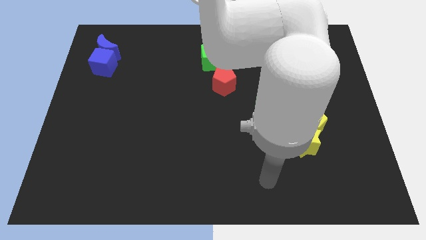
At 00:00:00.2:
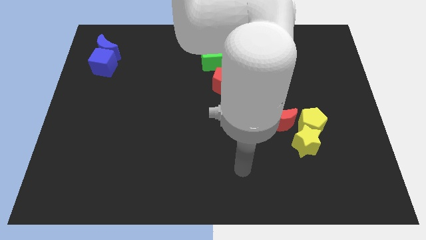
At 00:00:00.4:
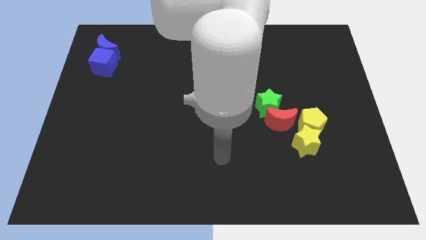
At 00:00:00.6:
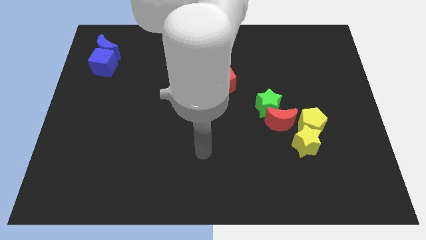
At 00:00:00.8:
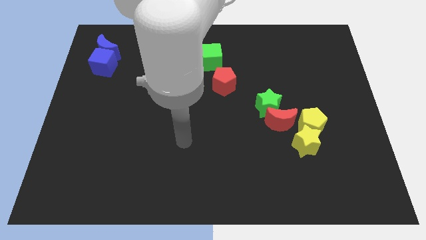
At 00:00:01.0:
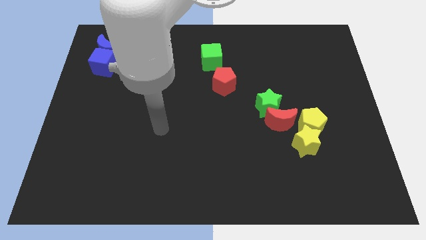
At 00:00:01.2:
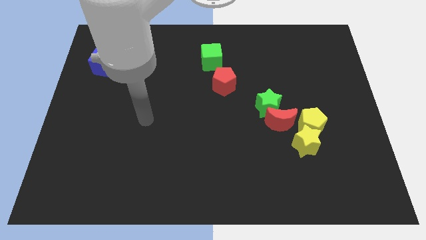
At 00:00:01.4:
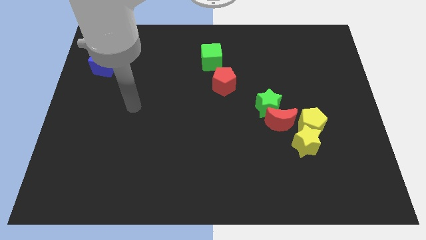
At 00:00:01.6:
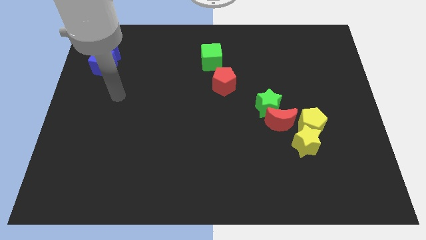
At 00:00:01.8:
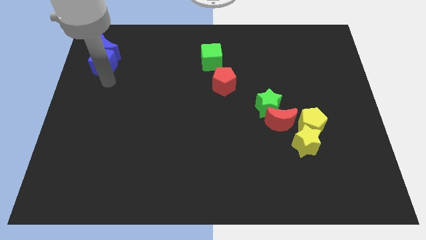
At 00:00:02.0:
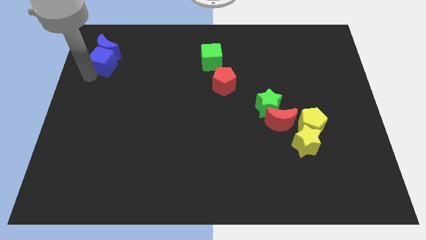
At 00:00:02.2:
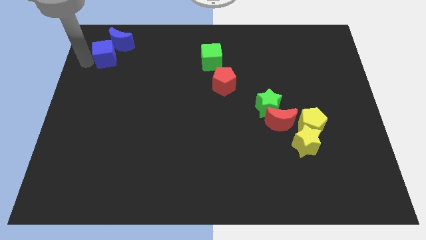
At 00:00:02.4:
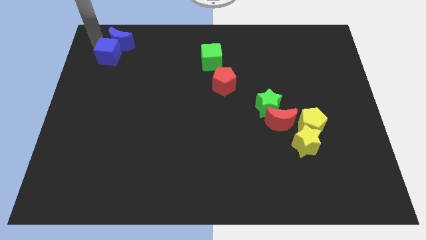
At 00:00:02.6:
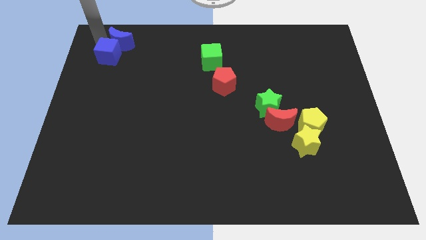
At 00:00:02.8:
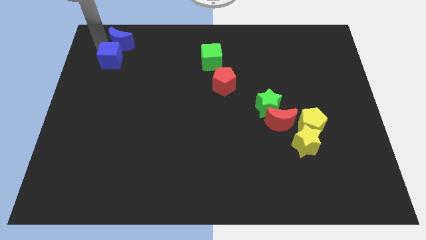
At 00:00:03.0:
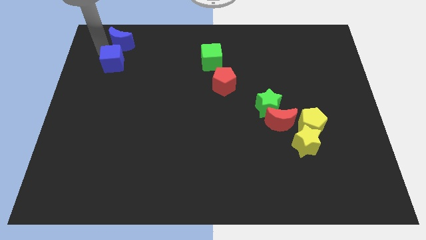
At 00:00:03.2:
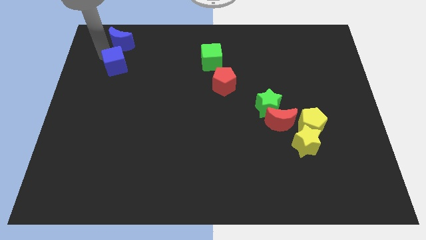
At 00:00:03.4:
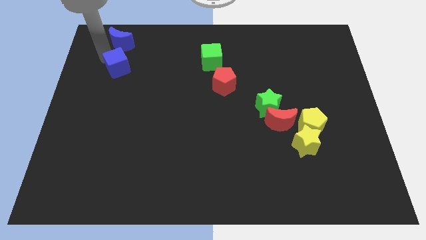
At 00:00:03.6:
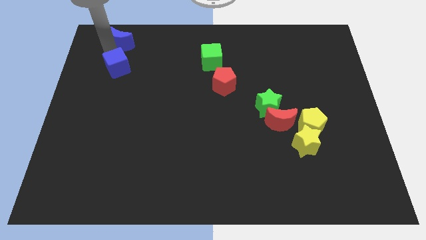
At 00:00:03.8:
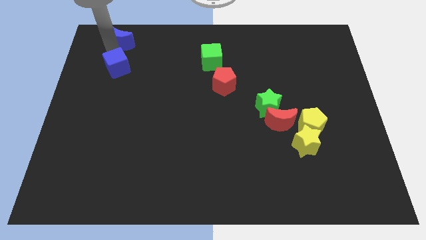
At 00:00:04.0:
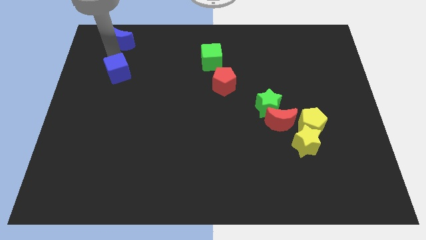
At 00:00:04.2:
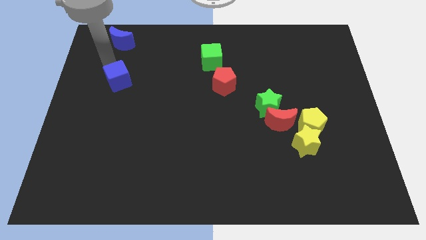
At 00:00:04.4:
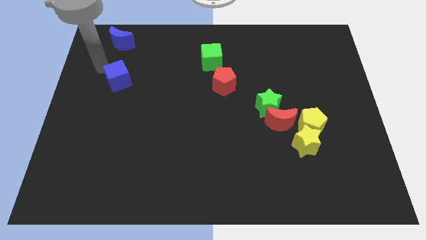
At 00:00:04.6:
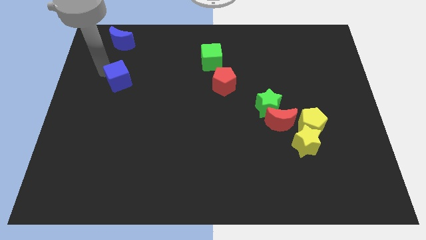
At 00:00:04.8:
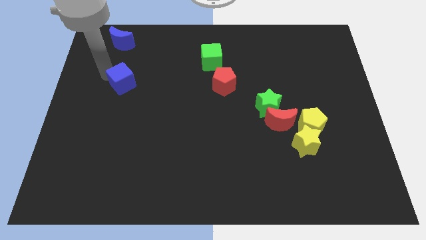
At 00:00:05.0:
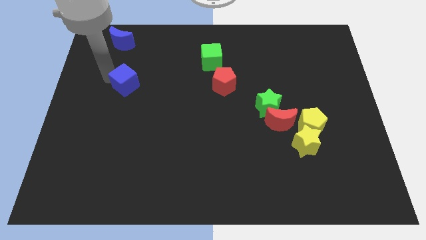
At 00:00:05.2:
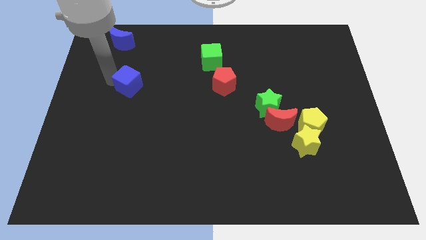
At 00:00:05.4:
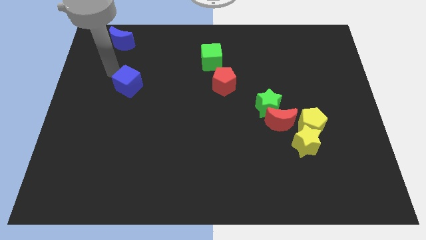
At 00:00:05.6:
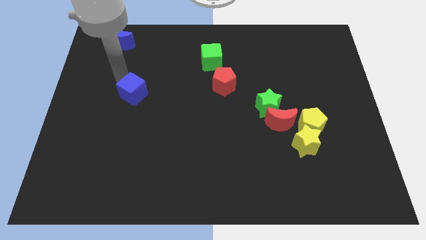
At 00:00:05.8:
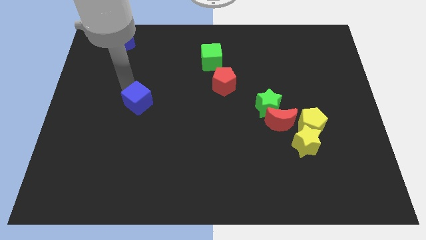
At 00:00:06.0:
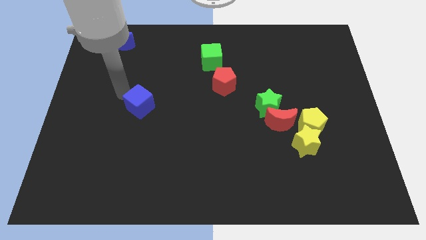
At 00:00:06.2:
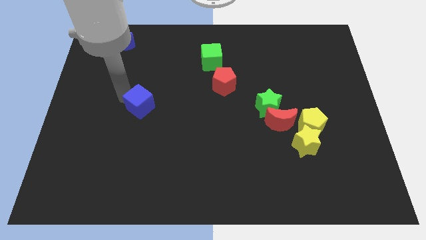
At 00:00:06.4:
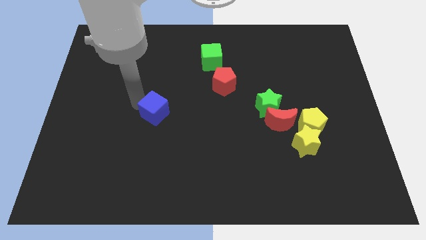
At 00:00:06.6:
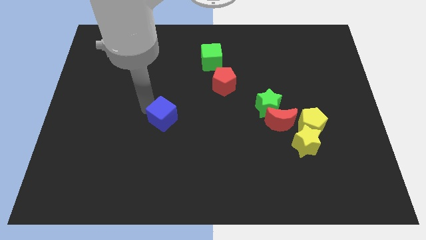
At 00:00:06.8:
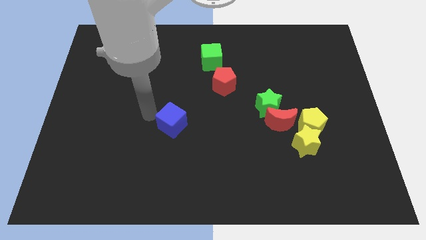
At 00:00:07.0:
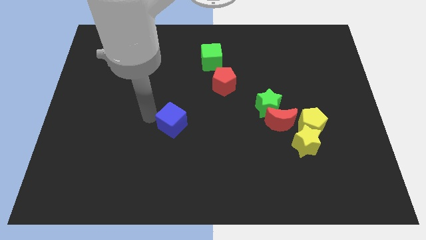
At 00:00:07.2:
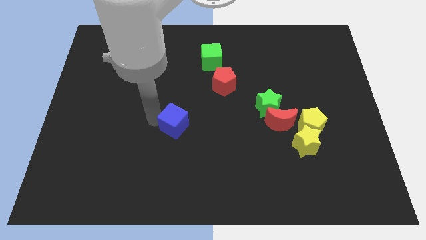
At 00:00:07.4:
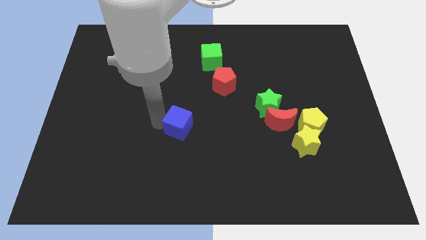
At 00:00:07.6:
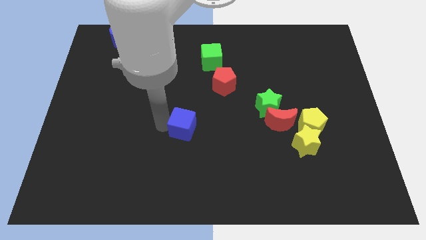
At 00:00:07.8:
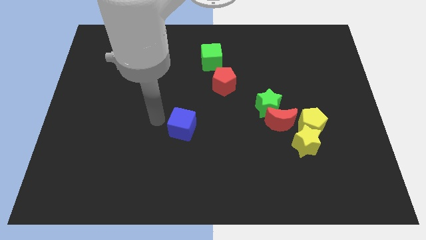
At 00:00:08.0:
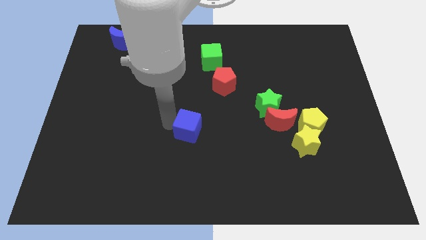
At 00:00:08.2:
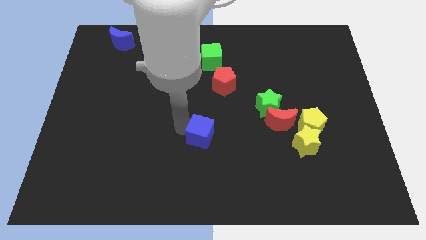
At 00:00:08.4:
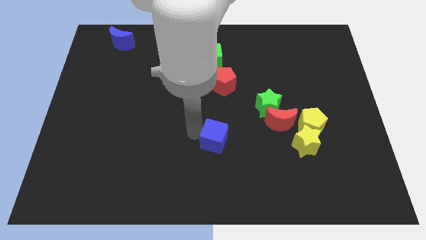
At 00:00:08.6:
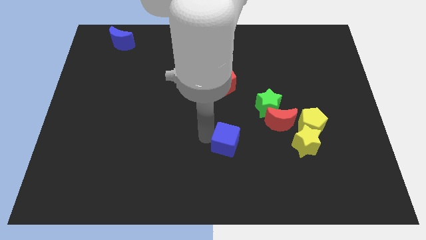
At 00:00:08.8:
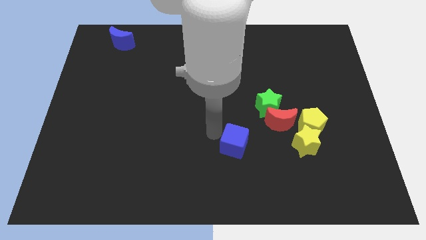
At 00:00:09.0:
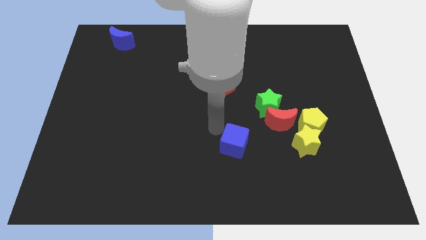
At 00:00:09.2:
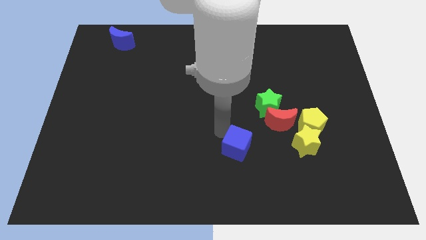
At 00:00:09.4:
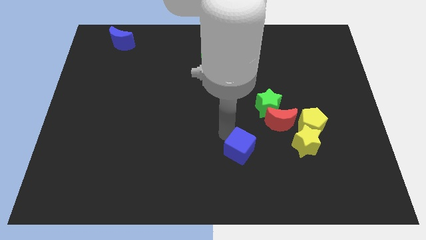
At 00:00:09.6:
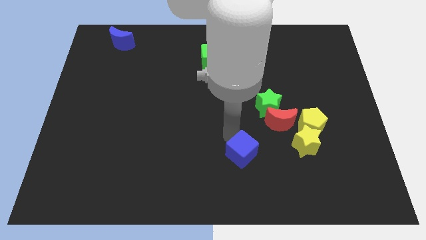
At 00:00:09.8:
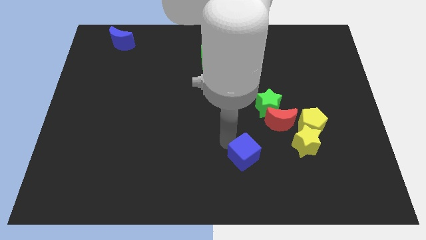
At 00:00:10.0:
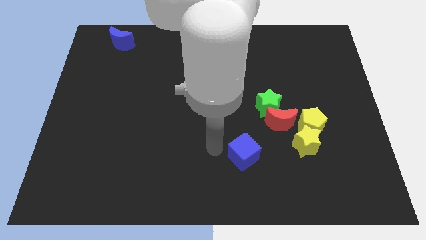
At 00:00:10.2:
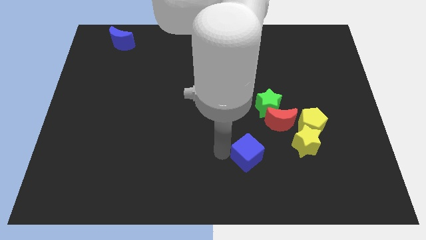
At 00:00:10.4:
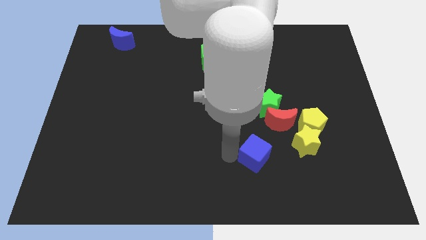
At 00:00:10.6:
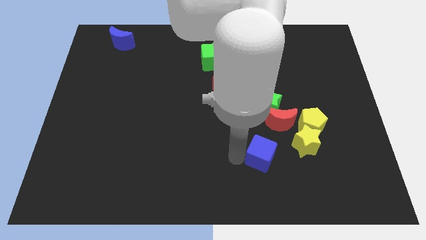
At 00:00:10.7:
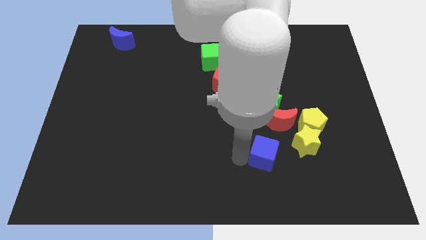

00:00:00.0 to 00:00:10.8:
slide the blue cube below the red moon

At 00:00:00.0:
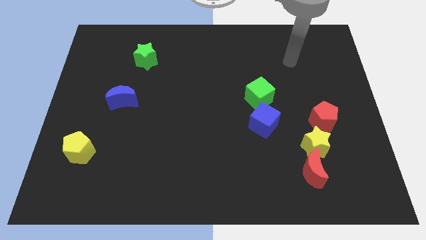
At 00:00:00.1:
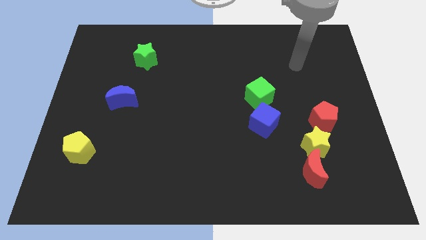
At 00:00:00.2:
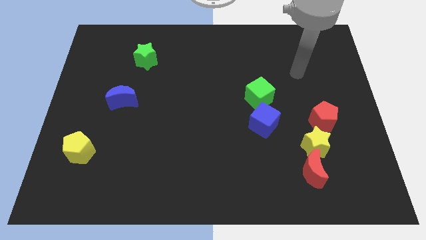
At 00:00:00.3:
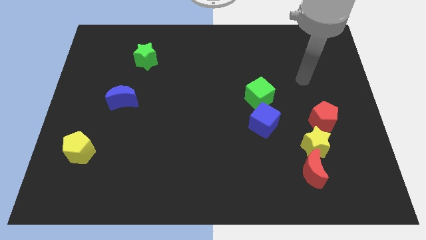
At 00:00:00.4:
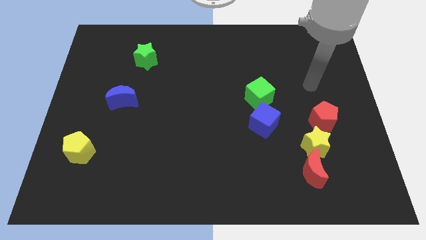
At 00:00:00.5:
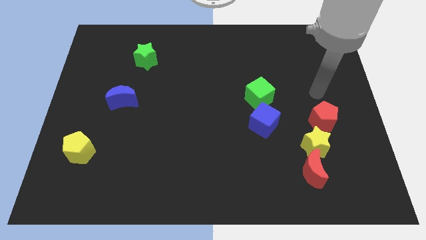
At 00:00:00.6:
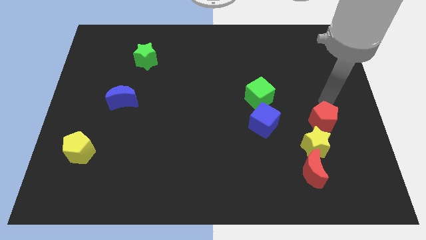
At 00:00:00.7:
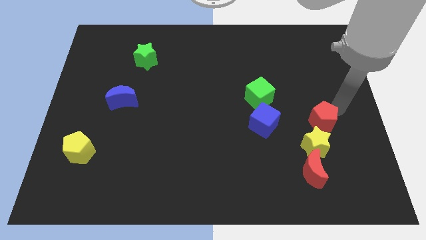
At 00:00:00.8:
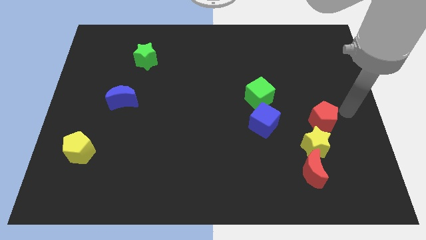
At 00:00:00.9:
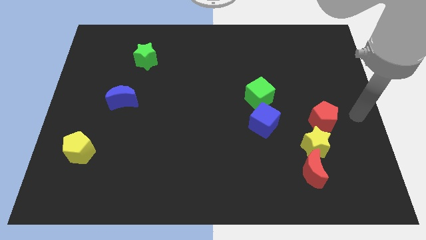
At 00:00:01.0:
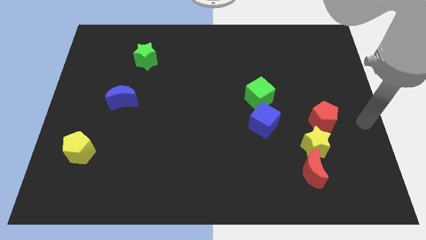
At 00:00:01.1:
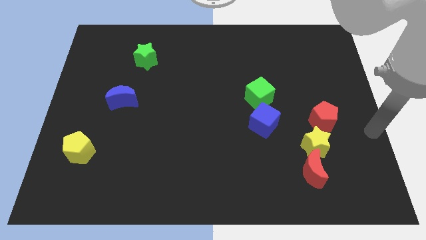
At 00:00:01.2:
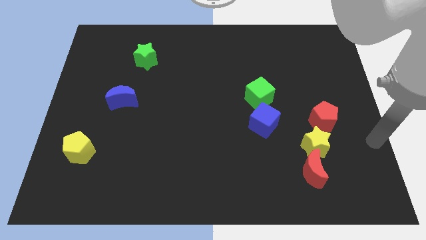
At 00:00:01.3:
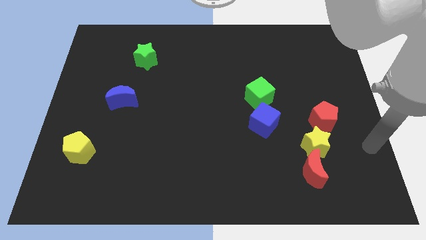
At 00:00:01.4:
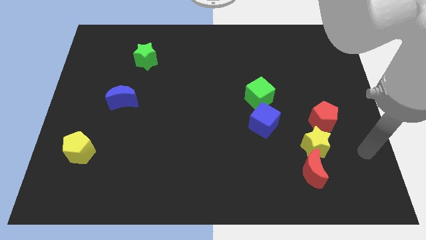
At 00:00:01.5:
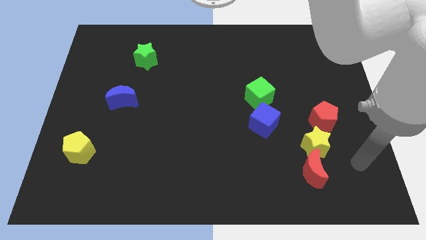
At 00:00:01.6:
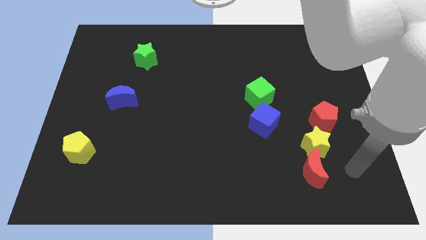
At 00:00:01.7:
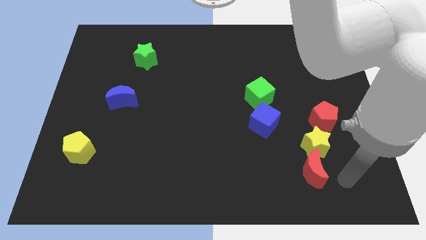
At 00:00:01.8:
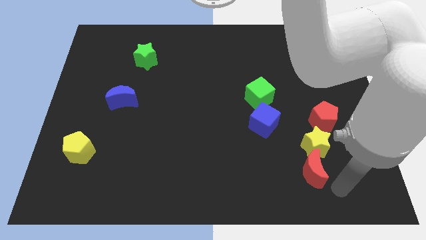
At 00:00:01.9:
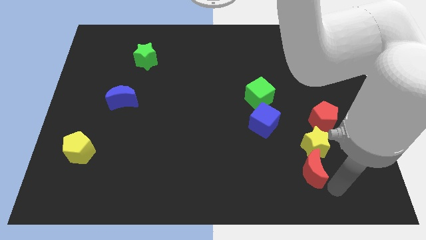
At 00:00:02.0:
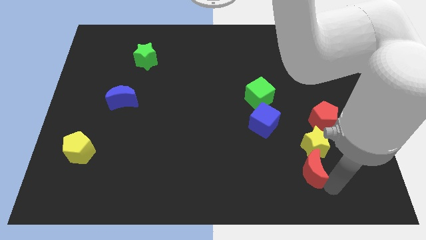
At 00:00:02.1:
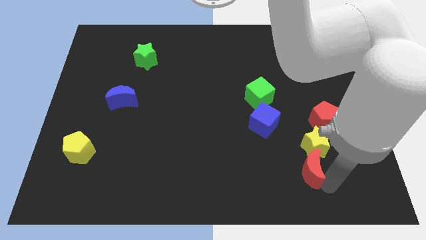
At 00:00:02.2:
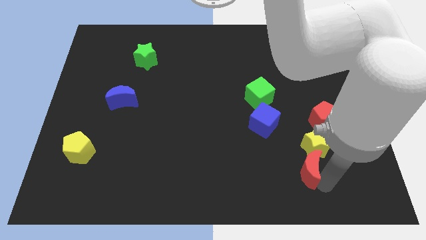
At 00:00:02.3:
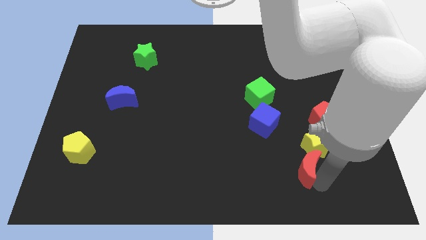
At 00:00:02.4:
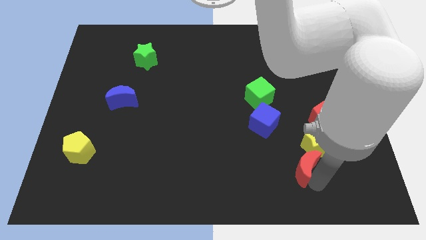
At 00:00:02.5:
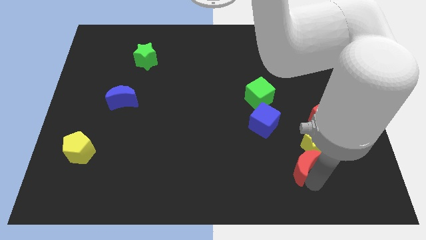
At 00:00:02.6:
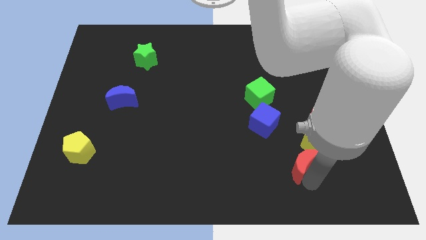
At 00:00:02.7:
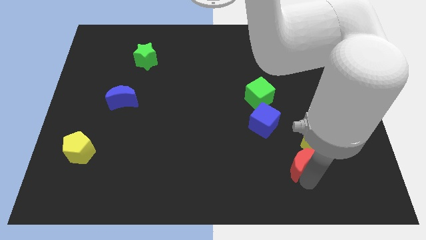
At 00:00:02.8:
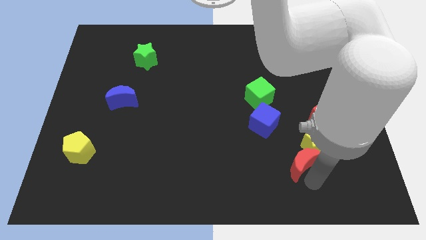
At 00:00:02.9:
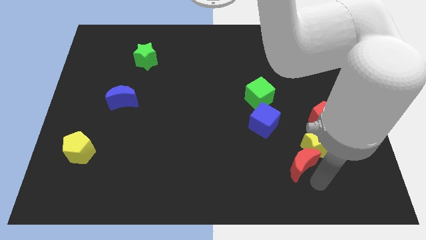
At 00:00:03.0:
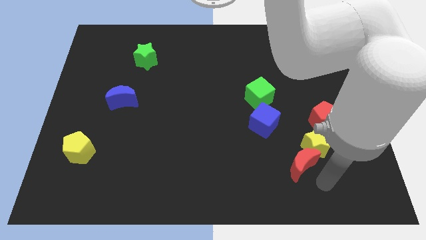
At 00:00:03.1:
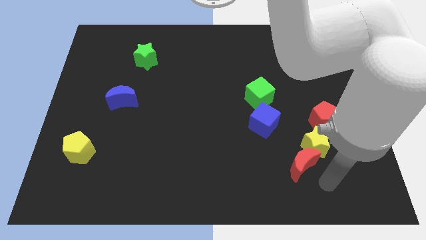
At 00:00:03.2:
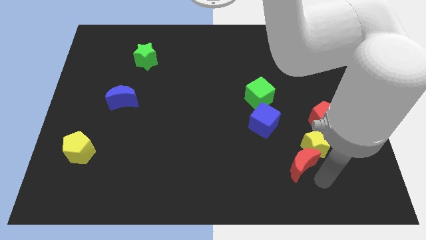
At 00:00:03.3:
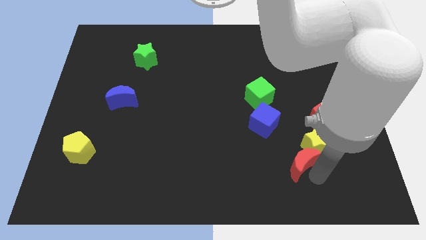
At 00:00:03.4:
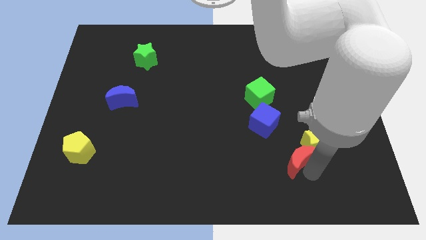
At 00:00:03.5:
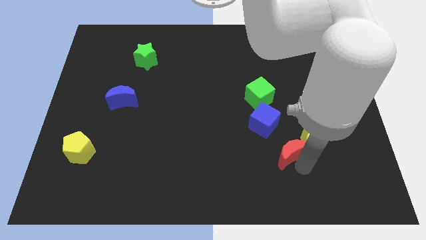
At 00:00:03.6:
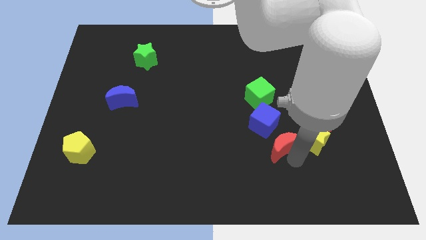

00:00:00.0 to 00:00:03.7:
move the red moon to the bottom side of the green cube
